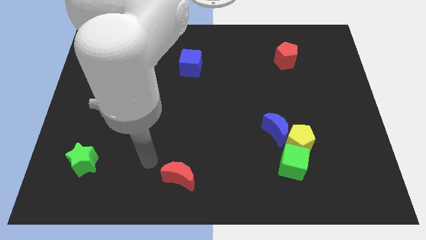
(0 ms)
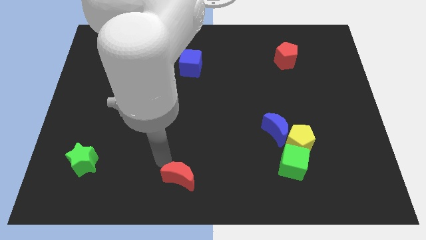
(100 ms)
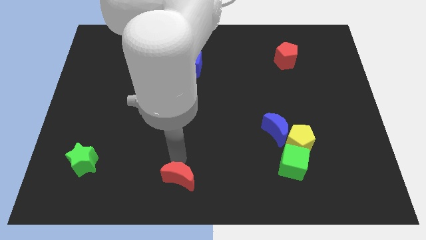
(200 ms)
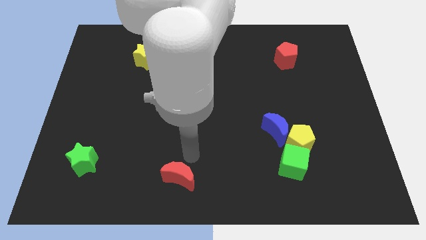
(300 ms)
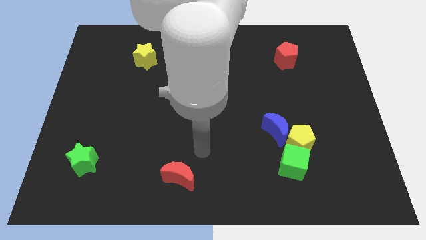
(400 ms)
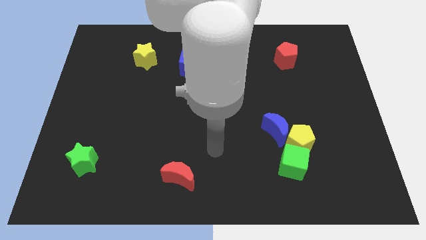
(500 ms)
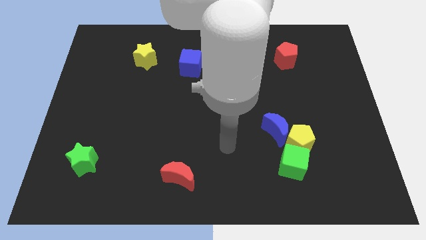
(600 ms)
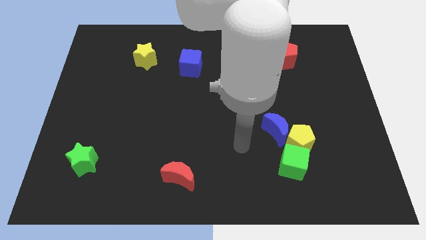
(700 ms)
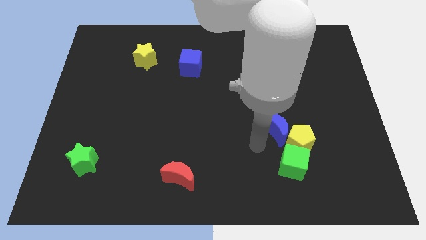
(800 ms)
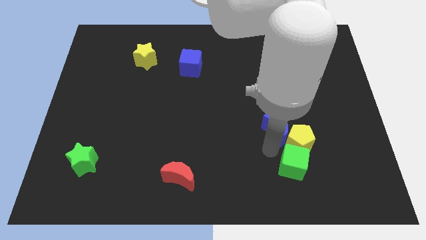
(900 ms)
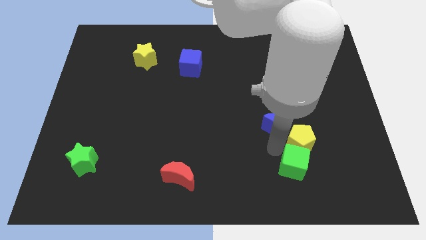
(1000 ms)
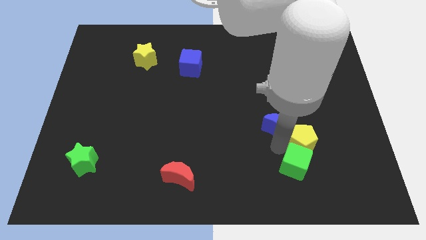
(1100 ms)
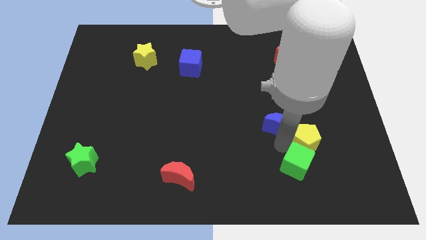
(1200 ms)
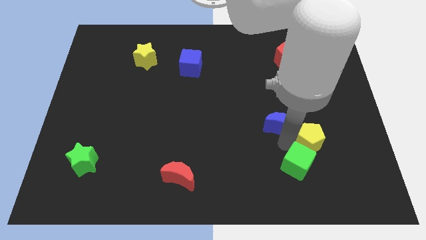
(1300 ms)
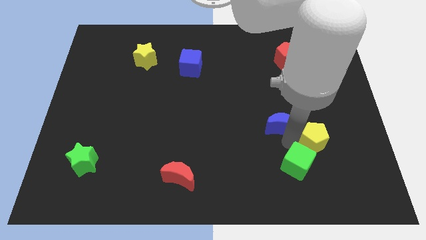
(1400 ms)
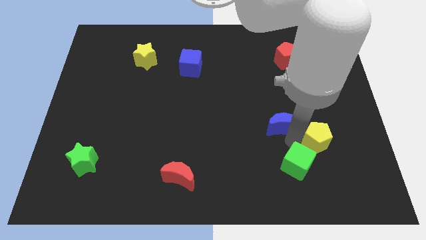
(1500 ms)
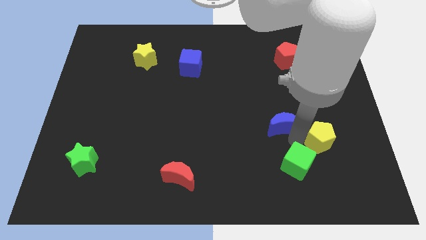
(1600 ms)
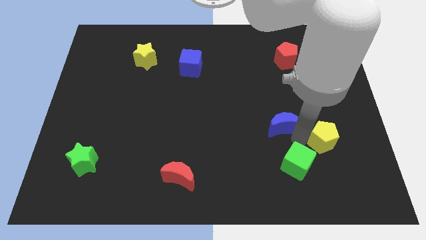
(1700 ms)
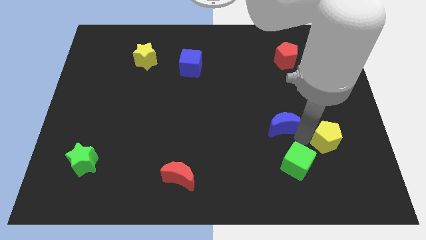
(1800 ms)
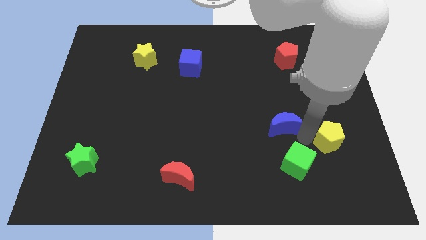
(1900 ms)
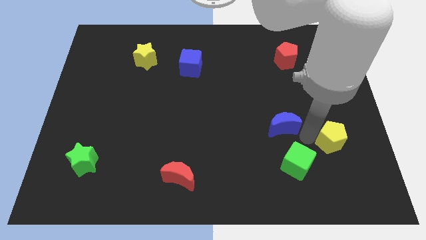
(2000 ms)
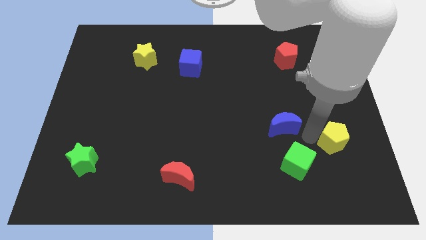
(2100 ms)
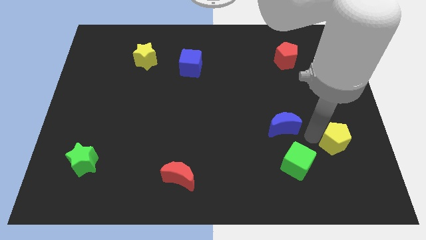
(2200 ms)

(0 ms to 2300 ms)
pull the yellow pentagon apart from the blue moon and green cube

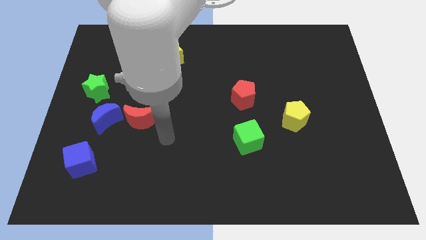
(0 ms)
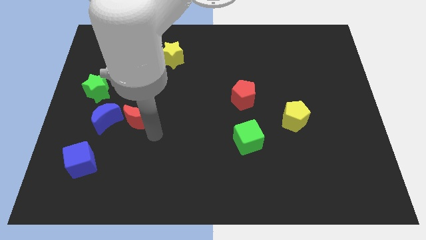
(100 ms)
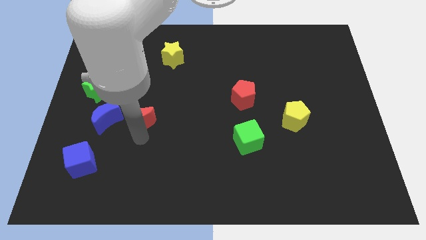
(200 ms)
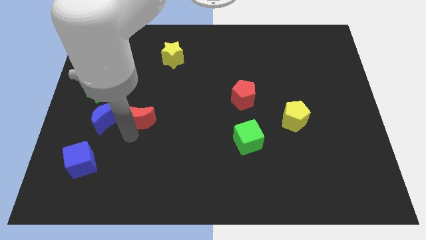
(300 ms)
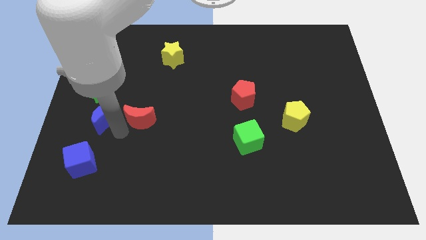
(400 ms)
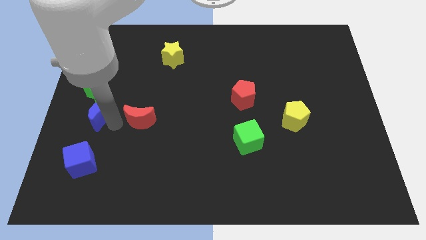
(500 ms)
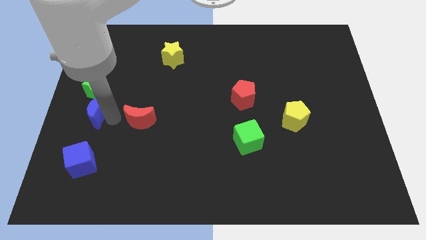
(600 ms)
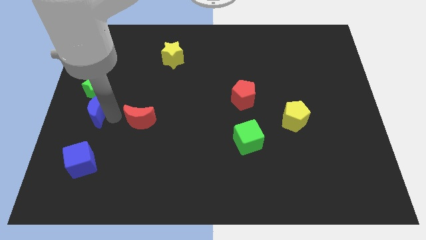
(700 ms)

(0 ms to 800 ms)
move the red moon away from the blue moon

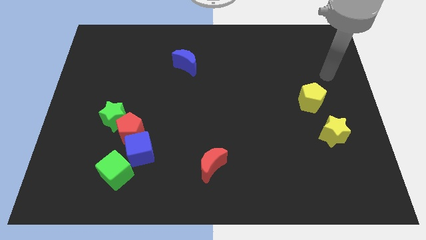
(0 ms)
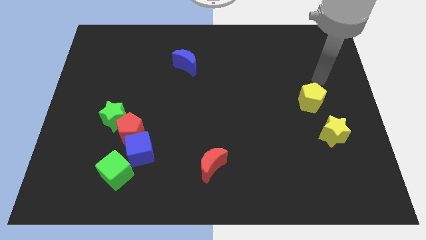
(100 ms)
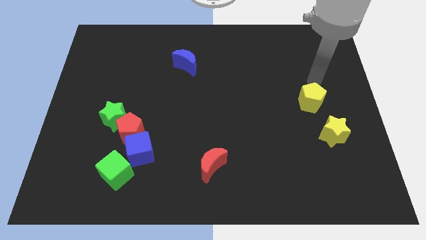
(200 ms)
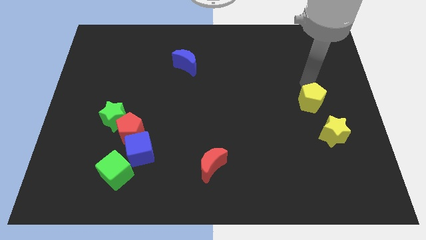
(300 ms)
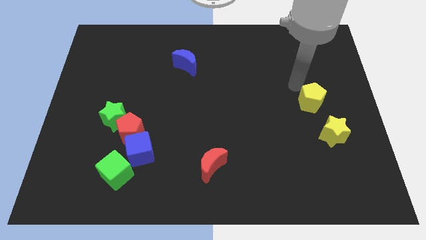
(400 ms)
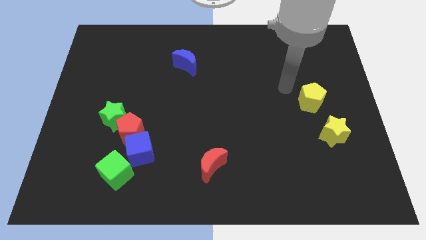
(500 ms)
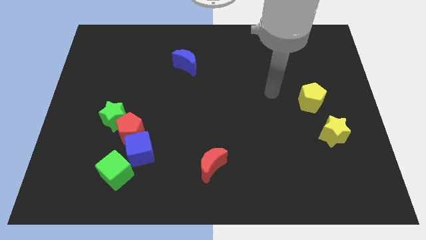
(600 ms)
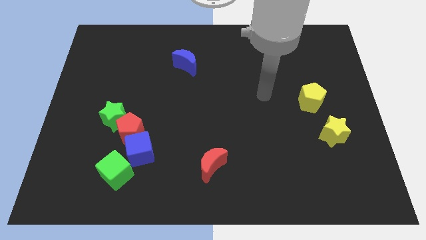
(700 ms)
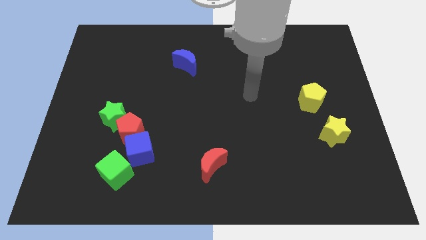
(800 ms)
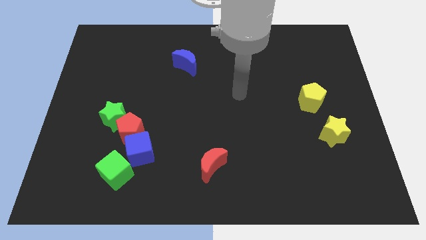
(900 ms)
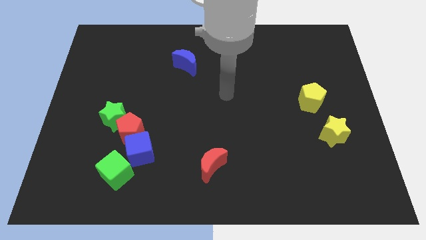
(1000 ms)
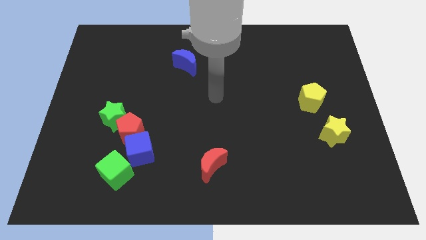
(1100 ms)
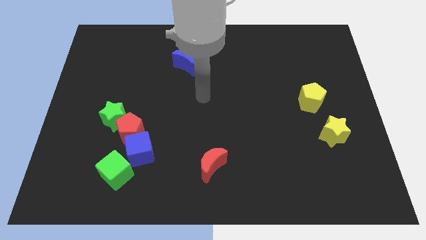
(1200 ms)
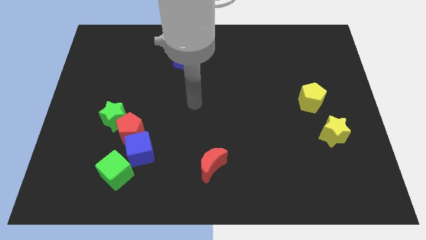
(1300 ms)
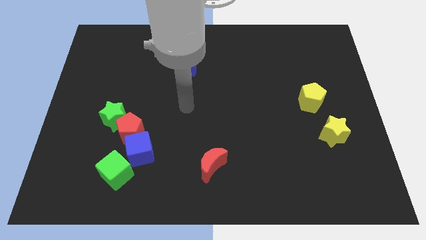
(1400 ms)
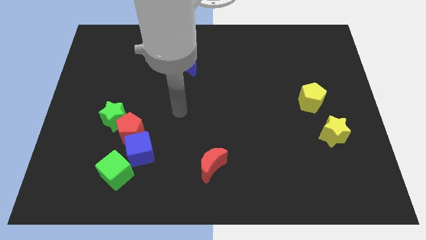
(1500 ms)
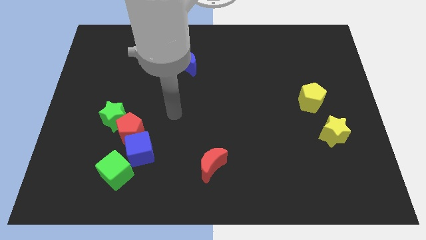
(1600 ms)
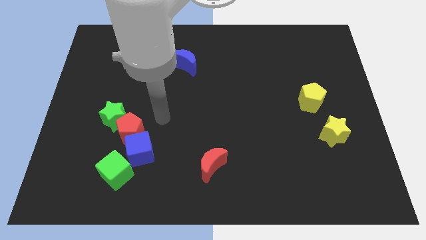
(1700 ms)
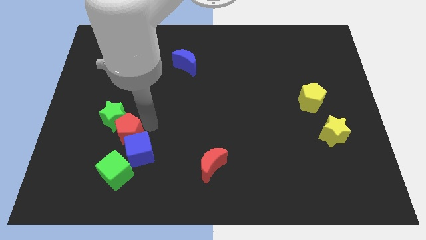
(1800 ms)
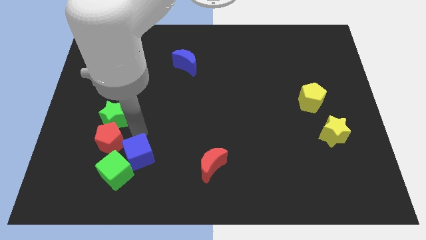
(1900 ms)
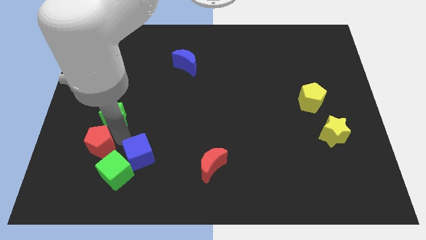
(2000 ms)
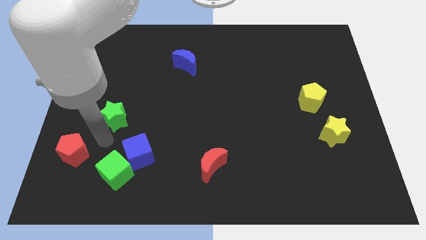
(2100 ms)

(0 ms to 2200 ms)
pull the green star apart from the red pentagon

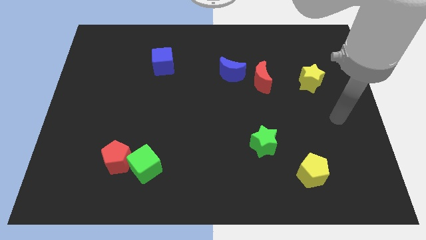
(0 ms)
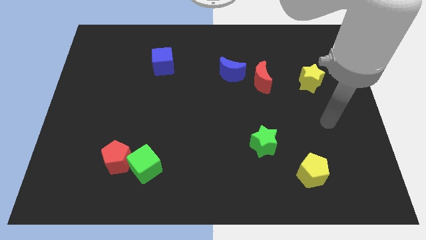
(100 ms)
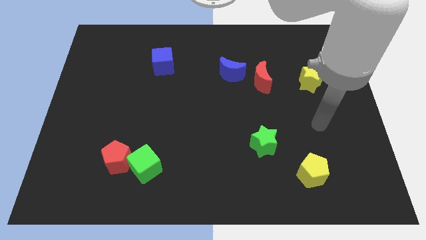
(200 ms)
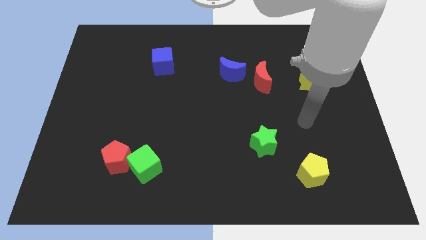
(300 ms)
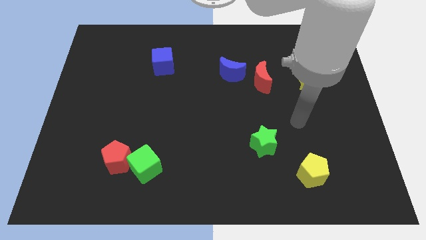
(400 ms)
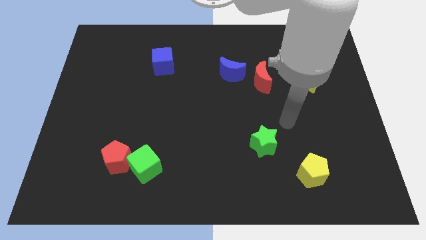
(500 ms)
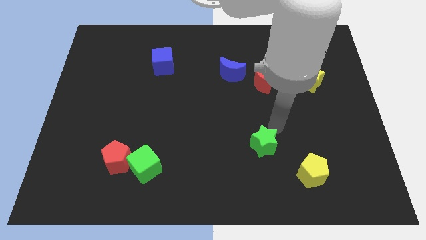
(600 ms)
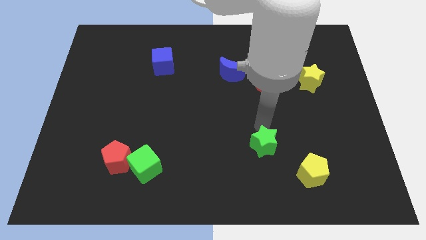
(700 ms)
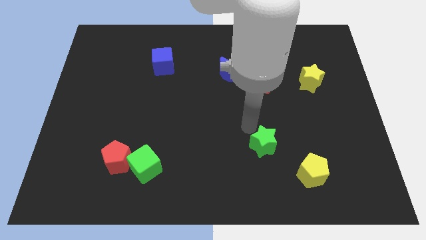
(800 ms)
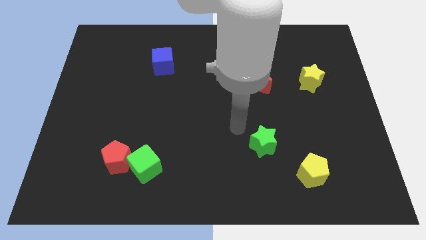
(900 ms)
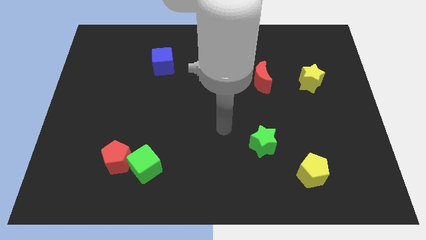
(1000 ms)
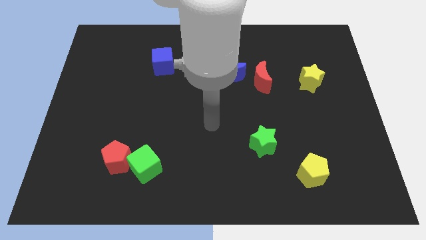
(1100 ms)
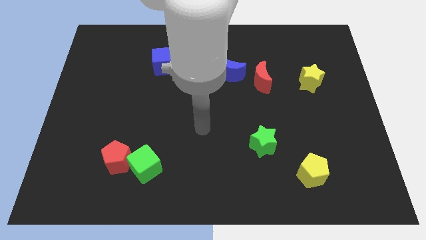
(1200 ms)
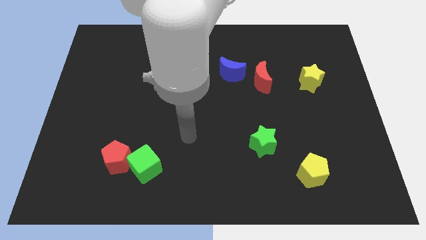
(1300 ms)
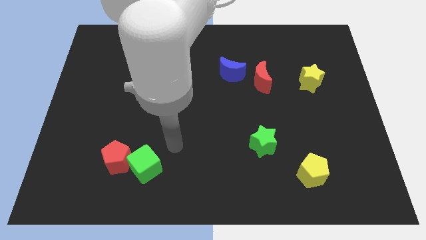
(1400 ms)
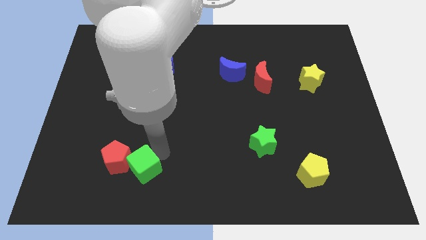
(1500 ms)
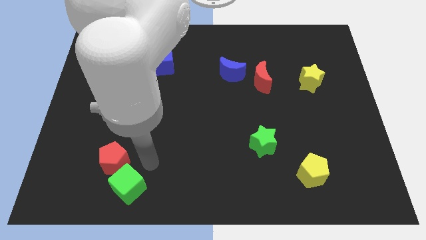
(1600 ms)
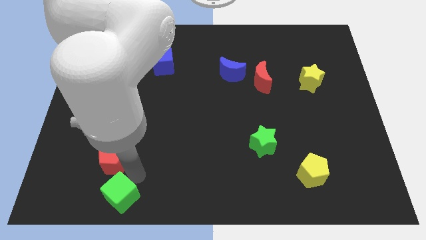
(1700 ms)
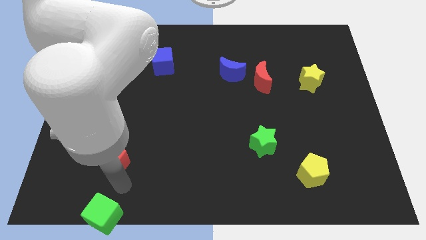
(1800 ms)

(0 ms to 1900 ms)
pull the red pentagon apart from the green cube

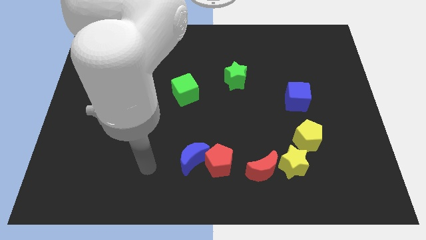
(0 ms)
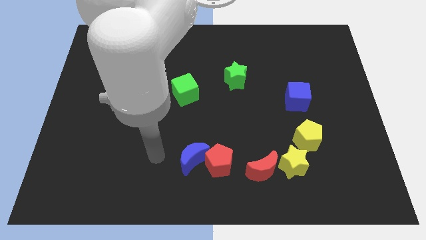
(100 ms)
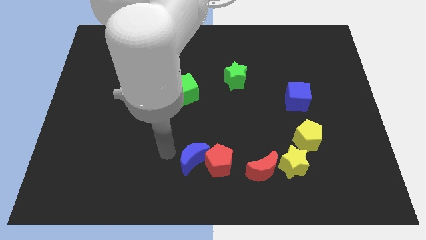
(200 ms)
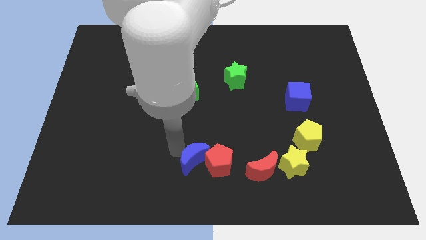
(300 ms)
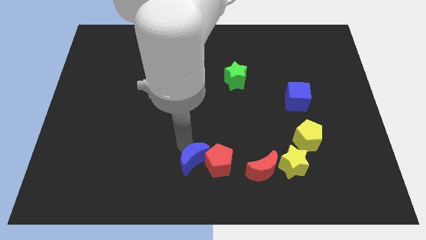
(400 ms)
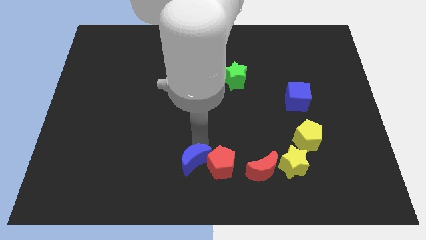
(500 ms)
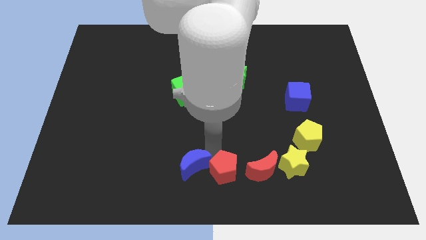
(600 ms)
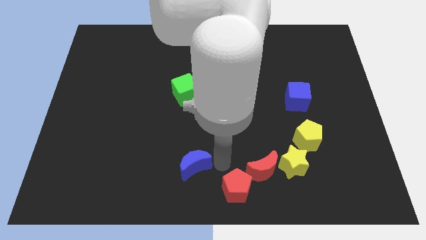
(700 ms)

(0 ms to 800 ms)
separate the blue moon from the red pentagon

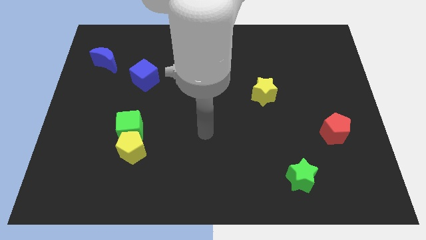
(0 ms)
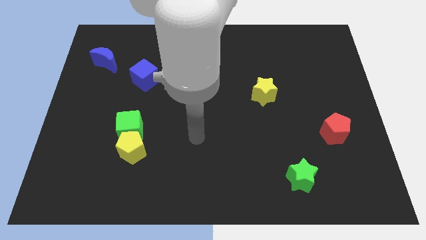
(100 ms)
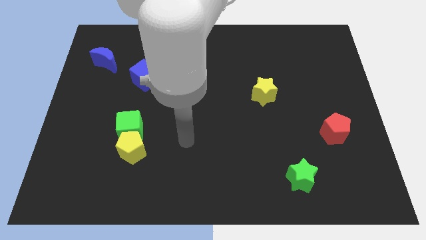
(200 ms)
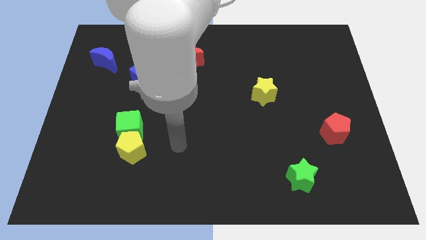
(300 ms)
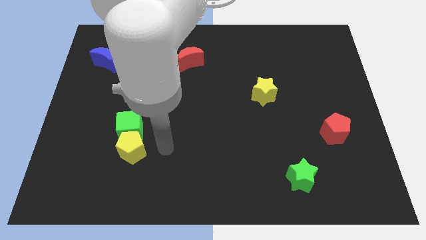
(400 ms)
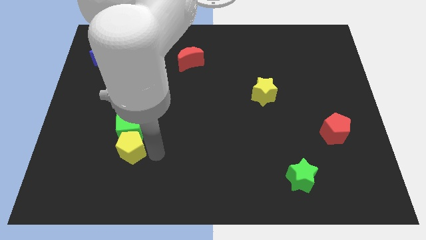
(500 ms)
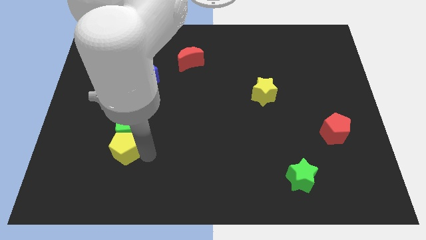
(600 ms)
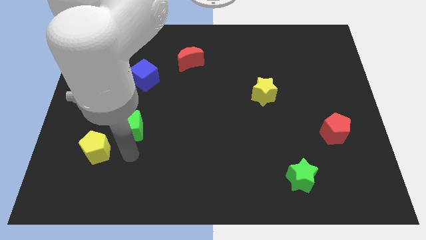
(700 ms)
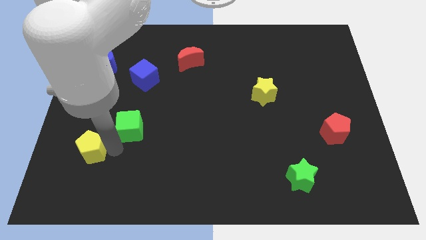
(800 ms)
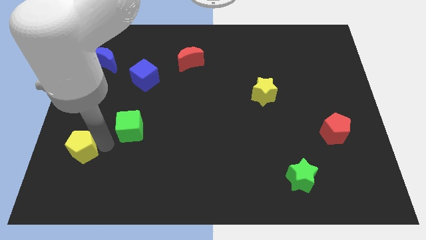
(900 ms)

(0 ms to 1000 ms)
move the green cube away from the yellow pentagon

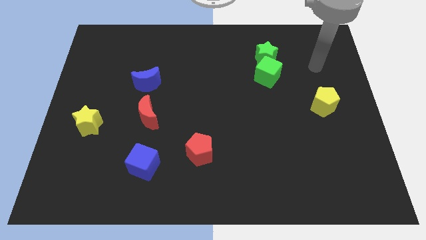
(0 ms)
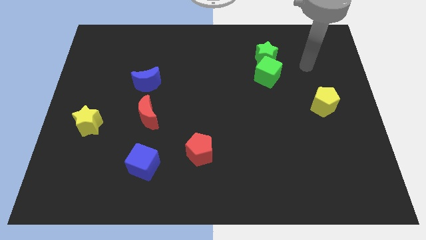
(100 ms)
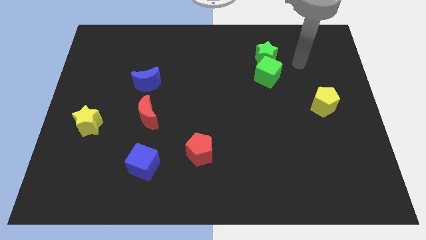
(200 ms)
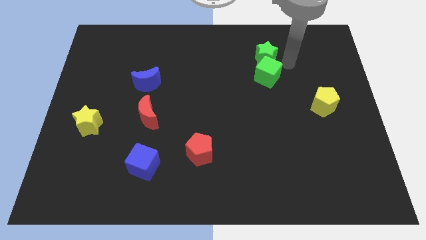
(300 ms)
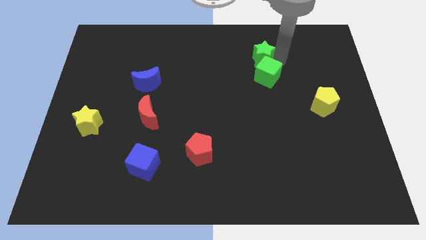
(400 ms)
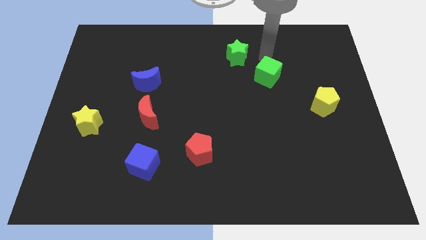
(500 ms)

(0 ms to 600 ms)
pull the green cube apart from the green star
